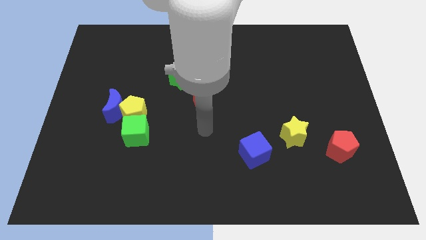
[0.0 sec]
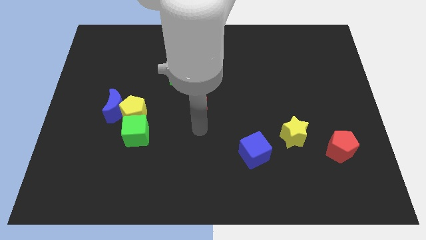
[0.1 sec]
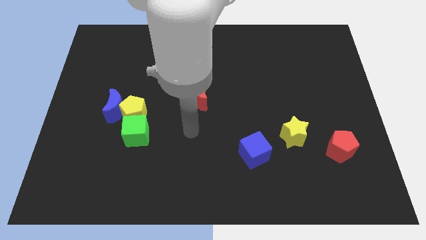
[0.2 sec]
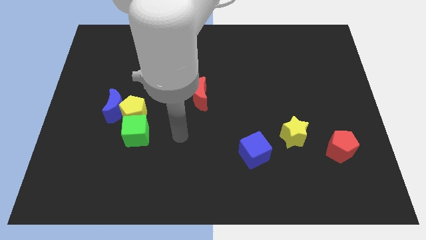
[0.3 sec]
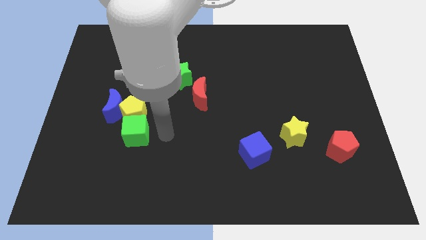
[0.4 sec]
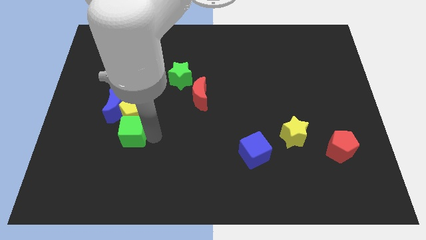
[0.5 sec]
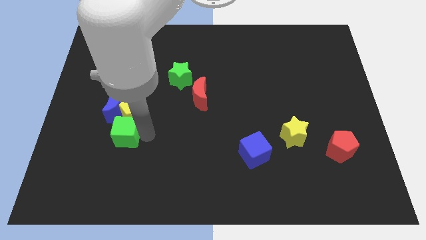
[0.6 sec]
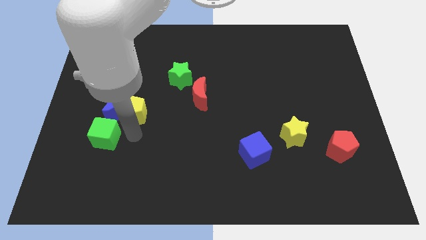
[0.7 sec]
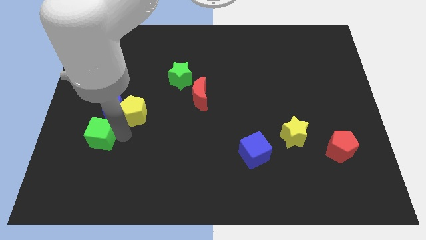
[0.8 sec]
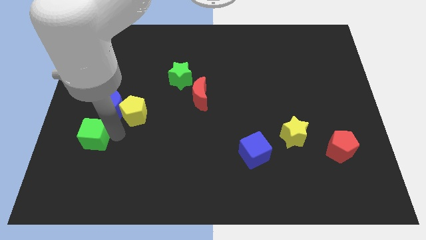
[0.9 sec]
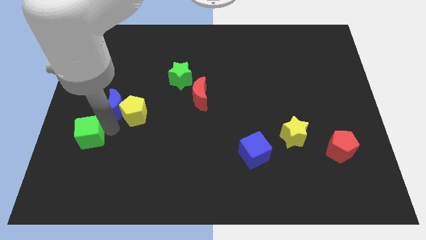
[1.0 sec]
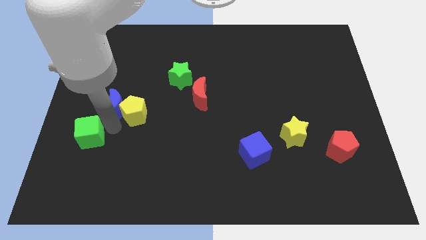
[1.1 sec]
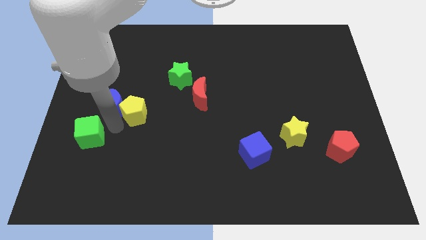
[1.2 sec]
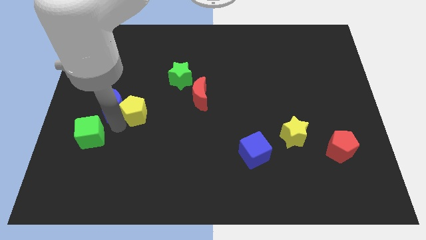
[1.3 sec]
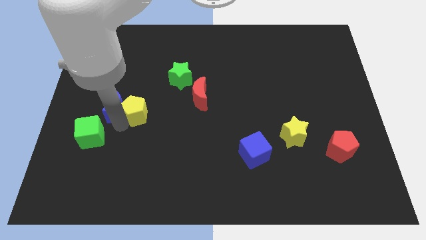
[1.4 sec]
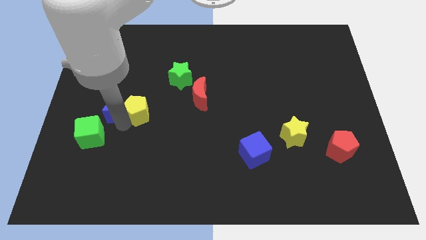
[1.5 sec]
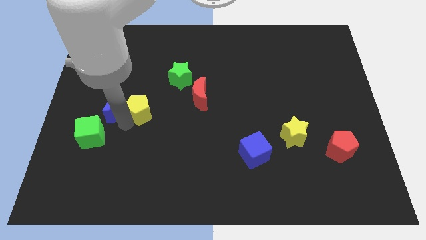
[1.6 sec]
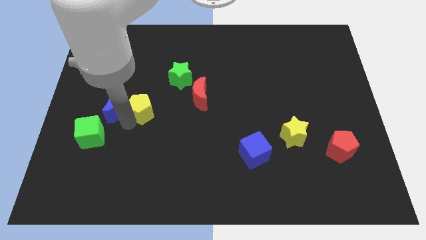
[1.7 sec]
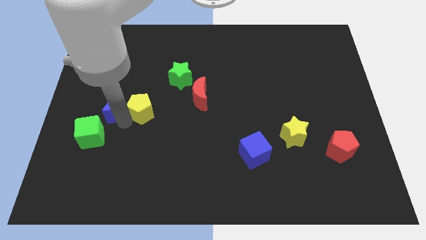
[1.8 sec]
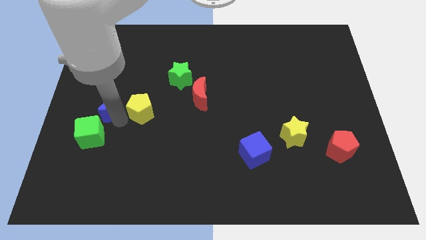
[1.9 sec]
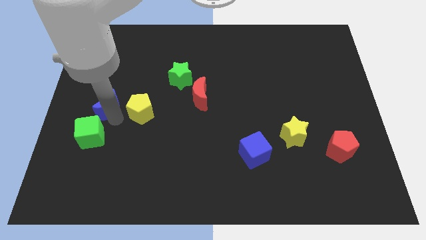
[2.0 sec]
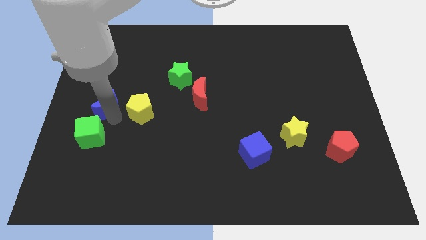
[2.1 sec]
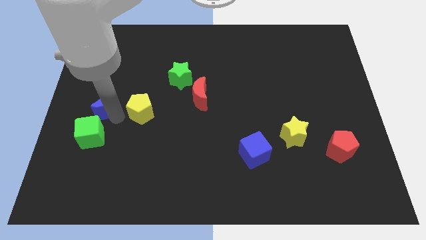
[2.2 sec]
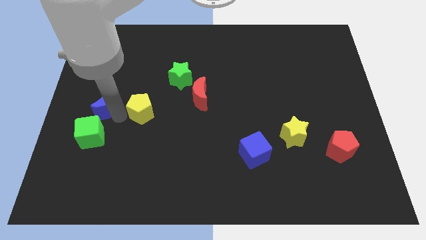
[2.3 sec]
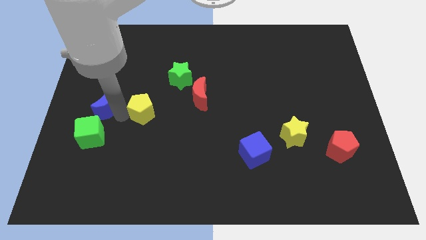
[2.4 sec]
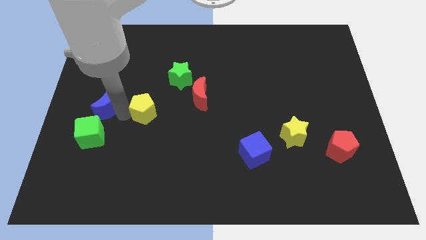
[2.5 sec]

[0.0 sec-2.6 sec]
pull the yellow pentagon apart from the blue moon and green cube

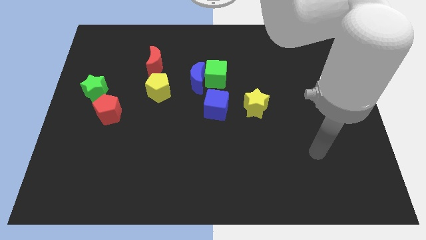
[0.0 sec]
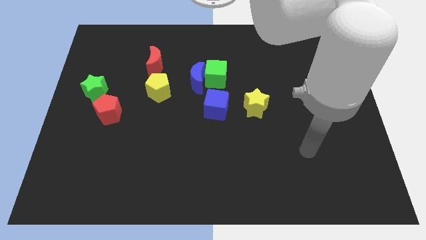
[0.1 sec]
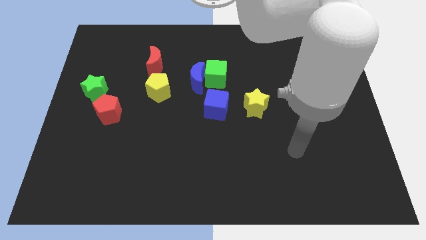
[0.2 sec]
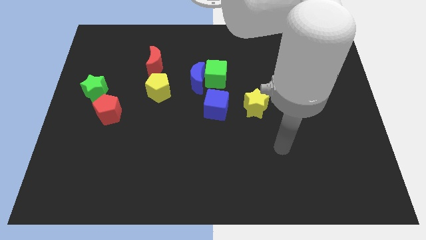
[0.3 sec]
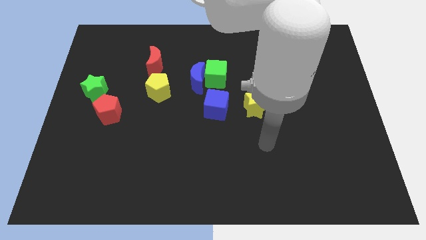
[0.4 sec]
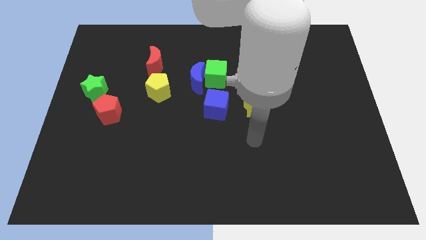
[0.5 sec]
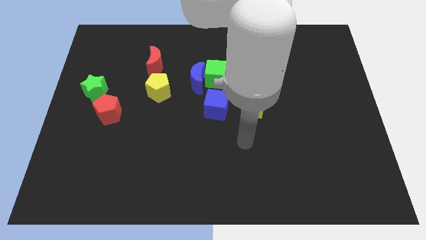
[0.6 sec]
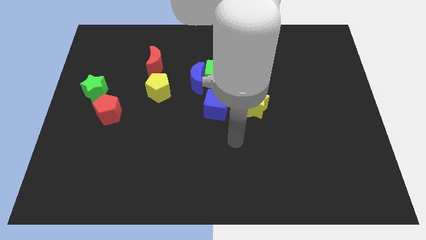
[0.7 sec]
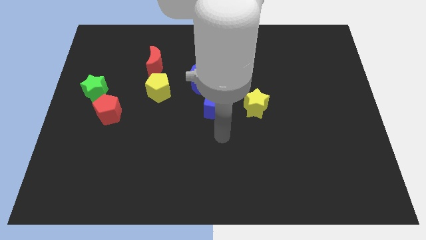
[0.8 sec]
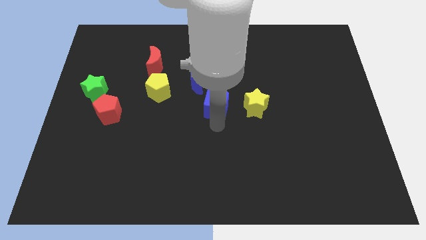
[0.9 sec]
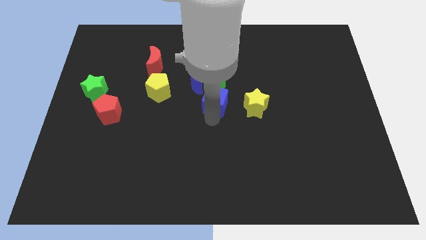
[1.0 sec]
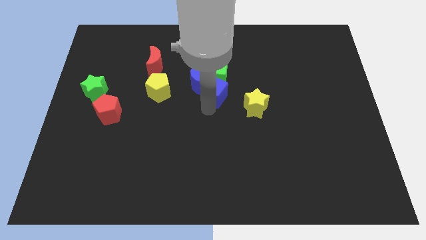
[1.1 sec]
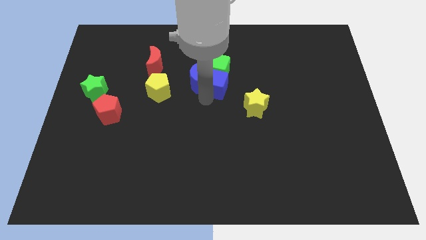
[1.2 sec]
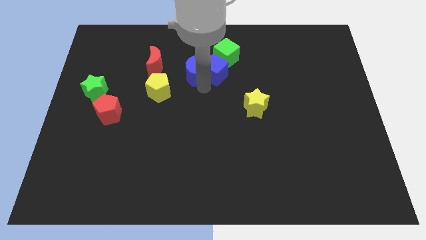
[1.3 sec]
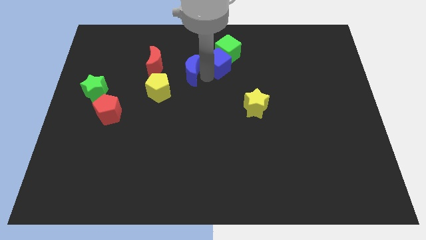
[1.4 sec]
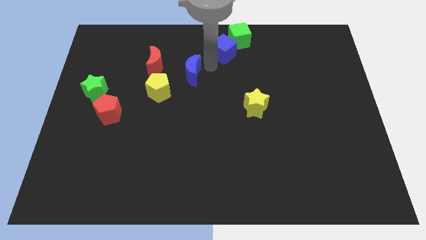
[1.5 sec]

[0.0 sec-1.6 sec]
move the green cube away from the blue moon and blue cube

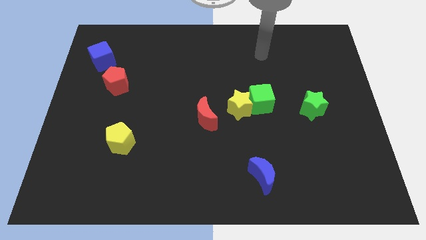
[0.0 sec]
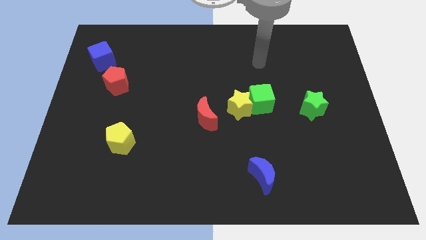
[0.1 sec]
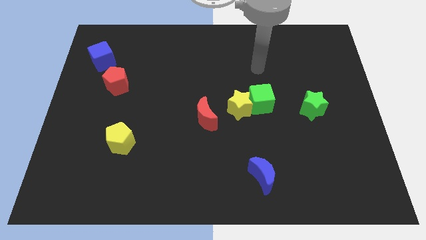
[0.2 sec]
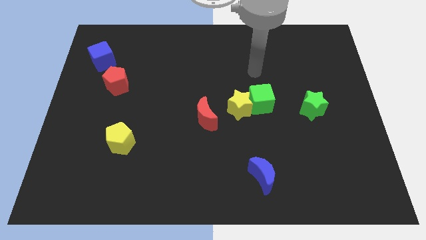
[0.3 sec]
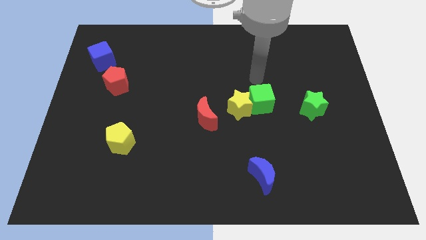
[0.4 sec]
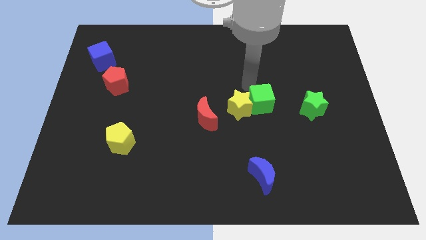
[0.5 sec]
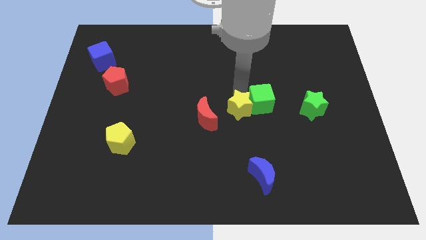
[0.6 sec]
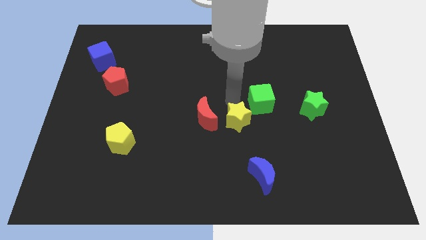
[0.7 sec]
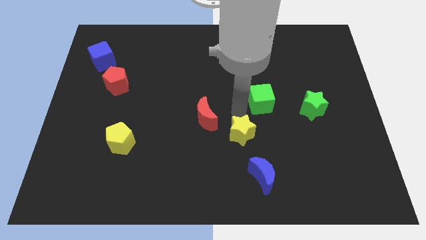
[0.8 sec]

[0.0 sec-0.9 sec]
pull the green cube apart from the yellow star

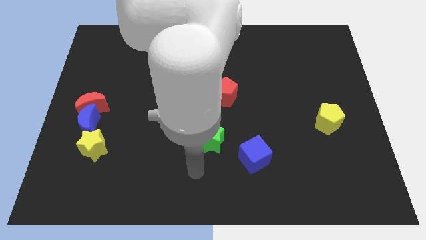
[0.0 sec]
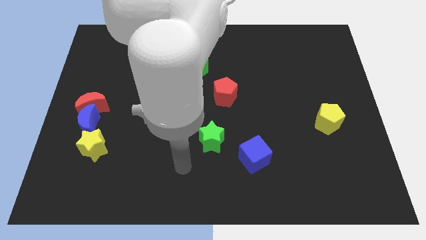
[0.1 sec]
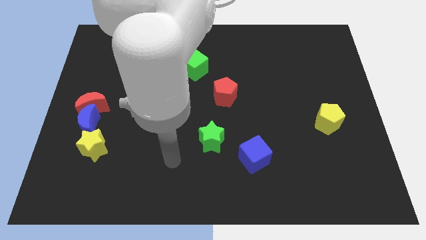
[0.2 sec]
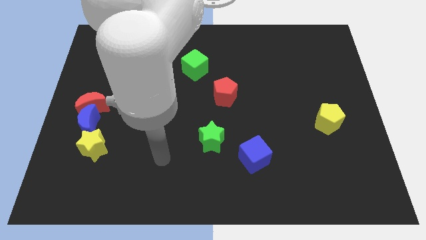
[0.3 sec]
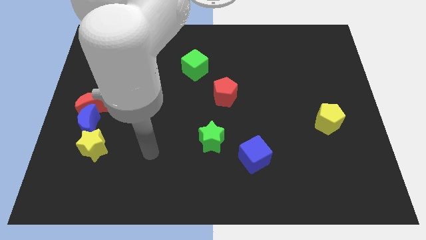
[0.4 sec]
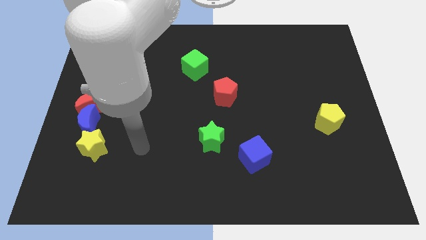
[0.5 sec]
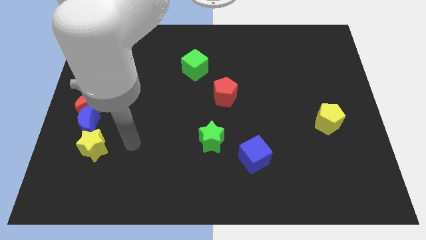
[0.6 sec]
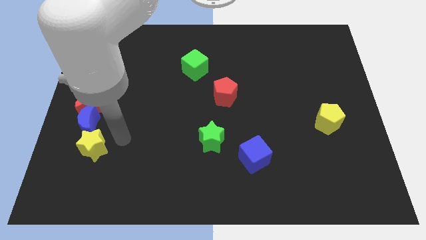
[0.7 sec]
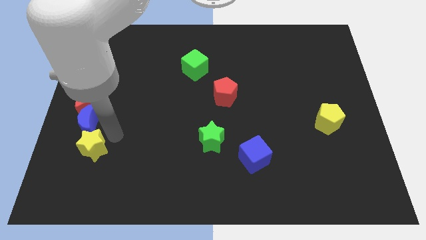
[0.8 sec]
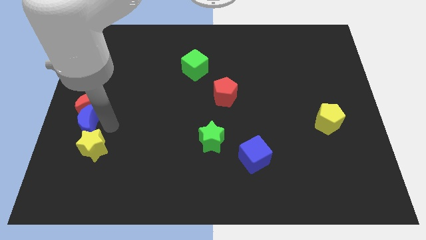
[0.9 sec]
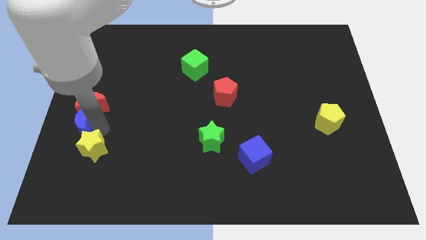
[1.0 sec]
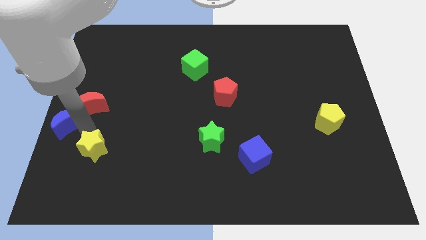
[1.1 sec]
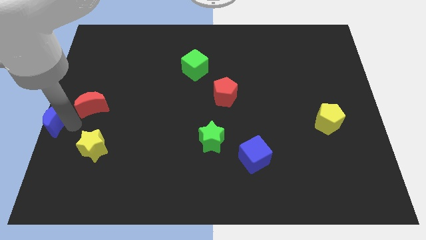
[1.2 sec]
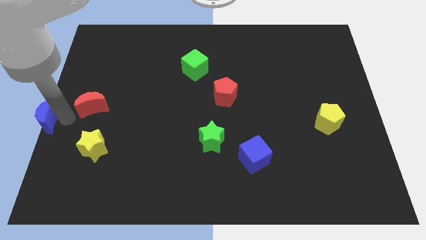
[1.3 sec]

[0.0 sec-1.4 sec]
separate the red moon from the blue moon

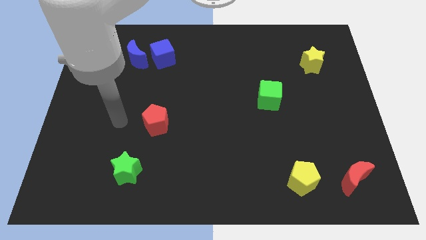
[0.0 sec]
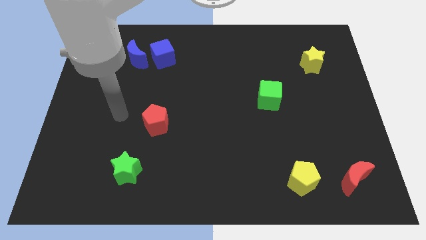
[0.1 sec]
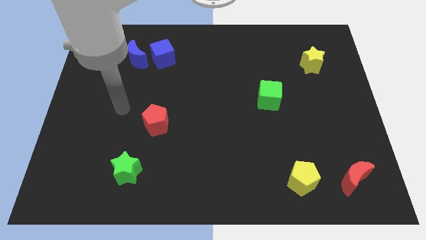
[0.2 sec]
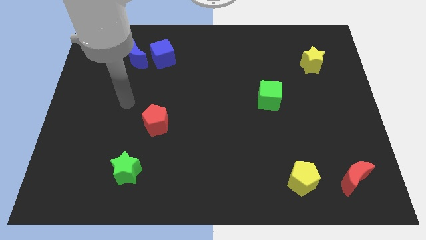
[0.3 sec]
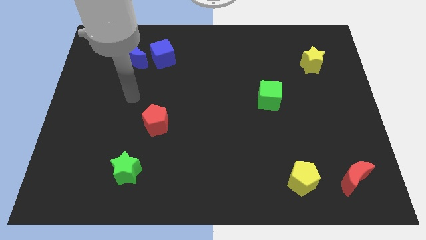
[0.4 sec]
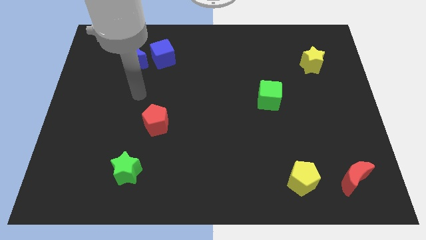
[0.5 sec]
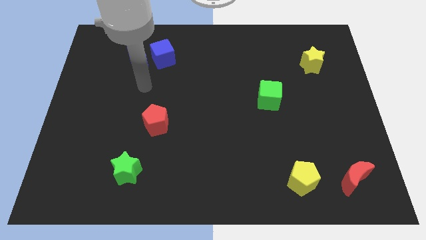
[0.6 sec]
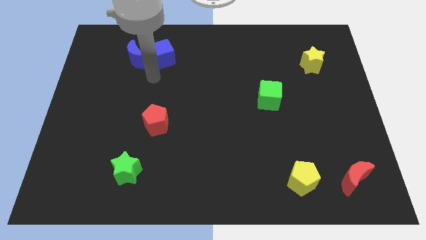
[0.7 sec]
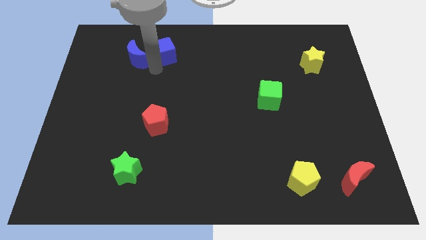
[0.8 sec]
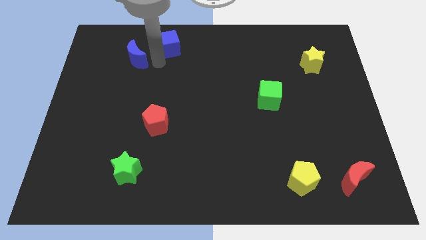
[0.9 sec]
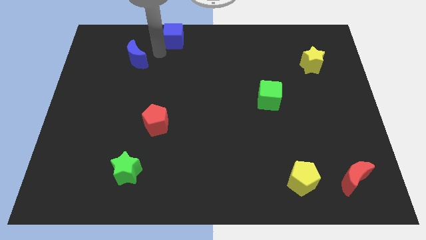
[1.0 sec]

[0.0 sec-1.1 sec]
separate the blue moon from the blue cube

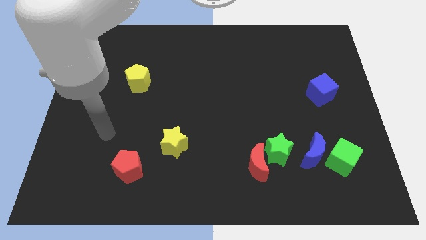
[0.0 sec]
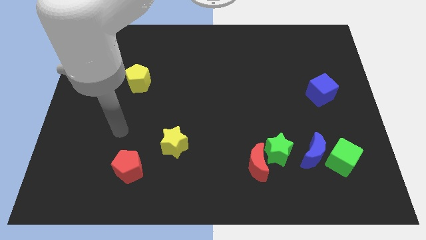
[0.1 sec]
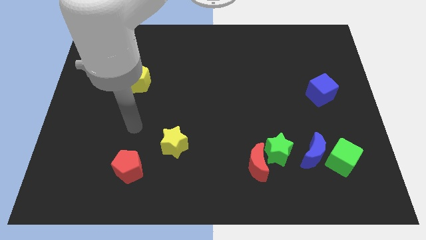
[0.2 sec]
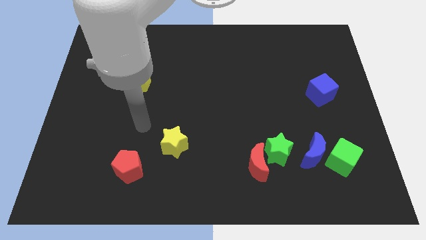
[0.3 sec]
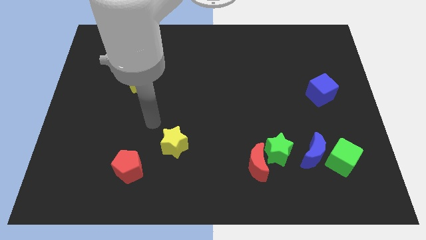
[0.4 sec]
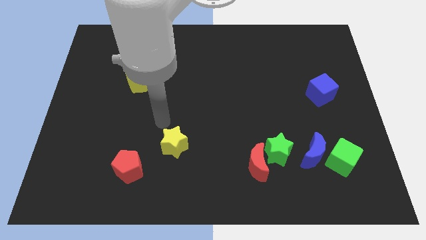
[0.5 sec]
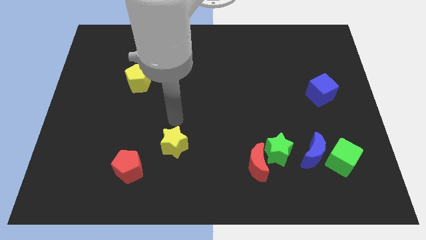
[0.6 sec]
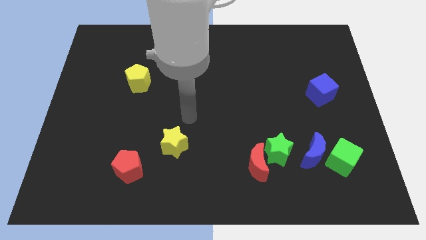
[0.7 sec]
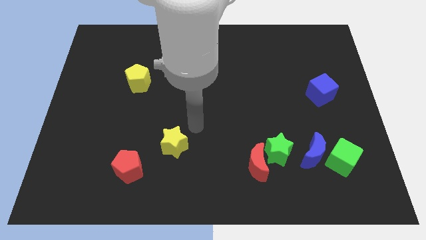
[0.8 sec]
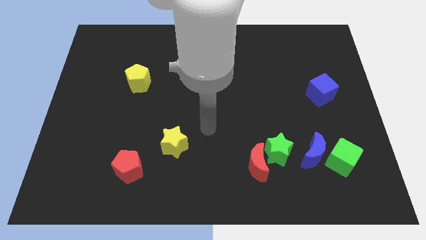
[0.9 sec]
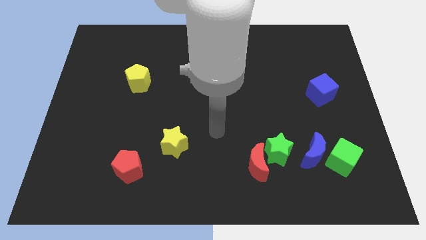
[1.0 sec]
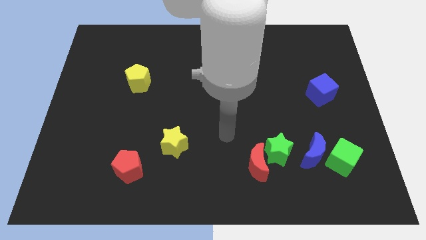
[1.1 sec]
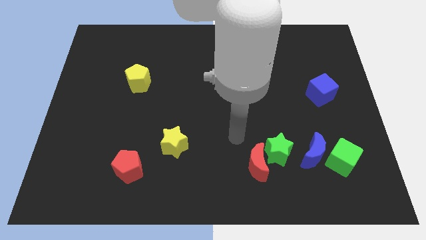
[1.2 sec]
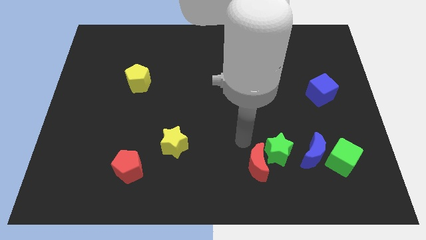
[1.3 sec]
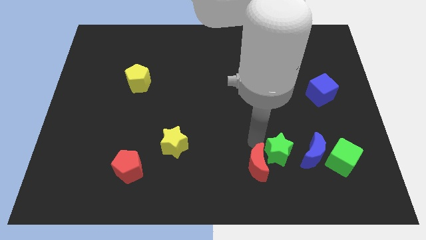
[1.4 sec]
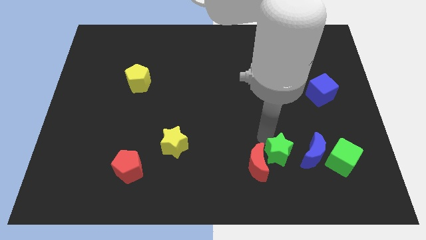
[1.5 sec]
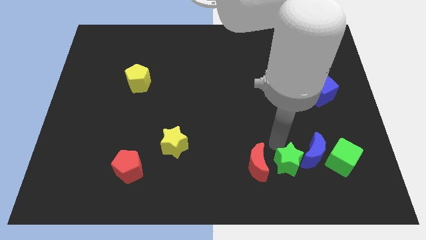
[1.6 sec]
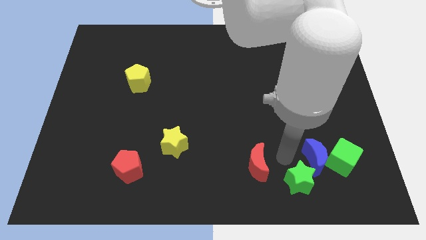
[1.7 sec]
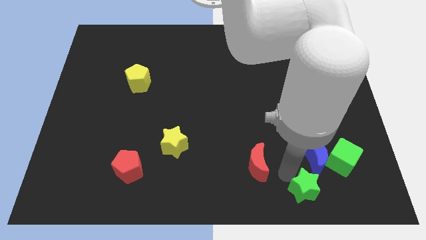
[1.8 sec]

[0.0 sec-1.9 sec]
pull the red moon apart from the green star

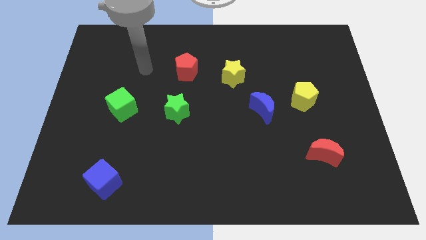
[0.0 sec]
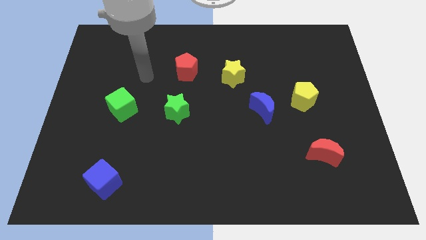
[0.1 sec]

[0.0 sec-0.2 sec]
separate the blue moon from the yellow pentagon
